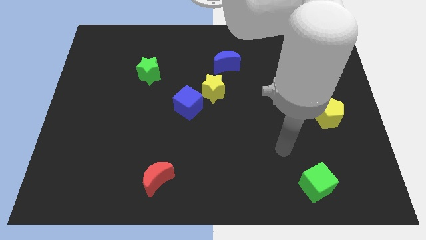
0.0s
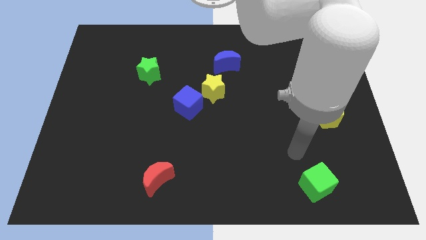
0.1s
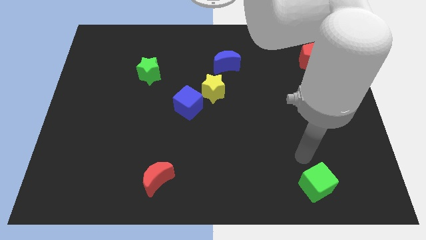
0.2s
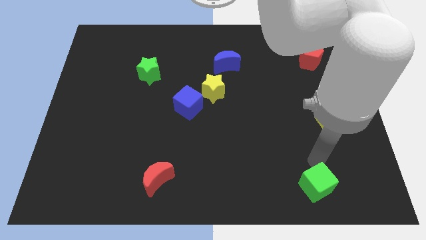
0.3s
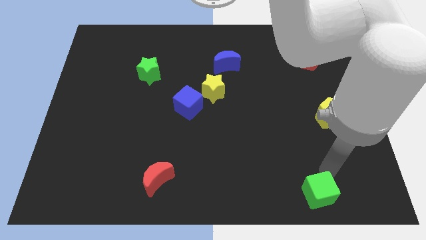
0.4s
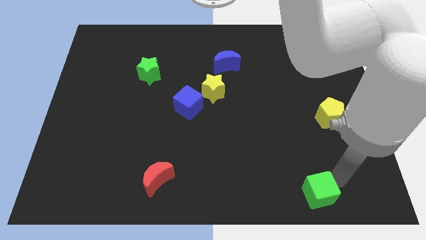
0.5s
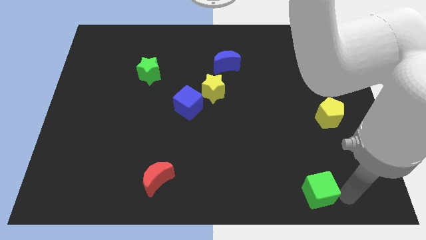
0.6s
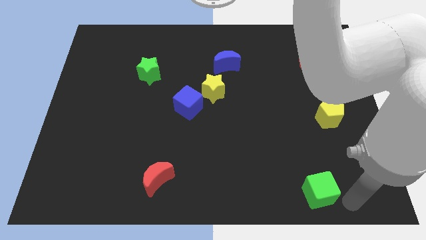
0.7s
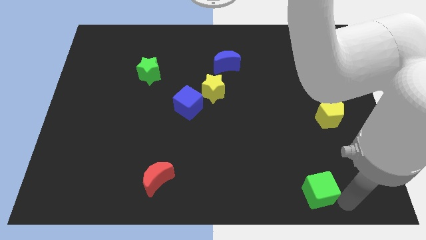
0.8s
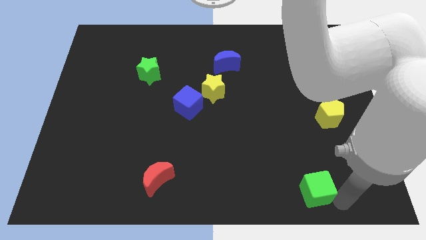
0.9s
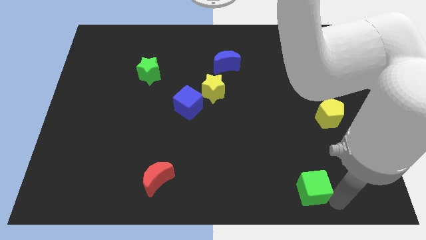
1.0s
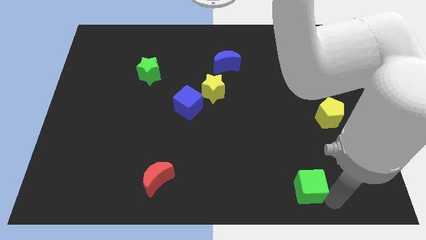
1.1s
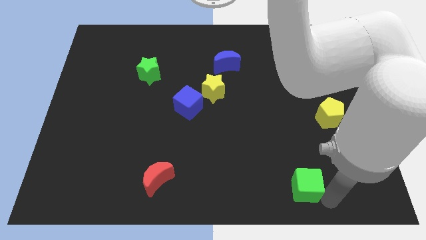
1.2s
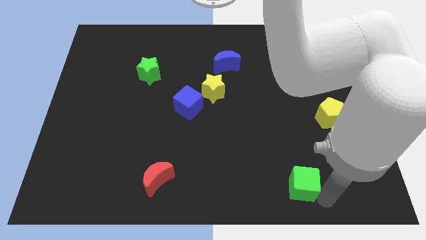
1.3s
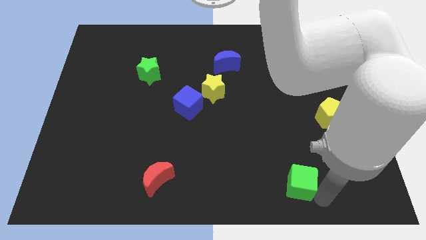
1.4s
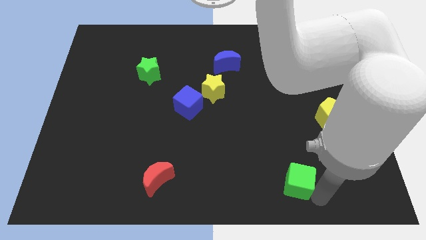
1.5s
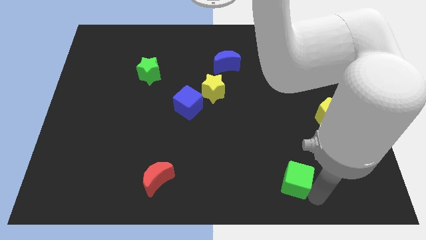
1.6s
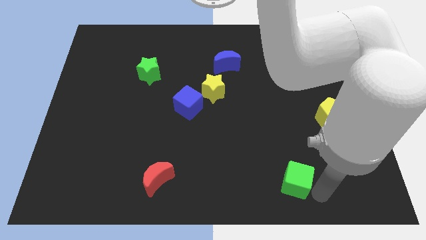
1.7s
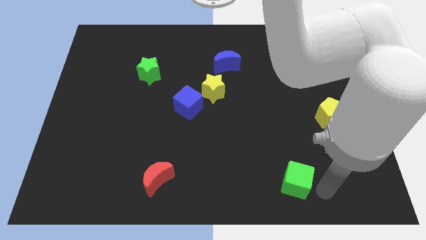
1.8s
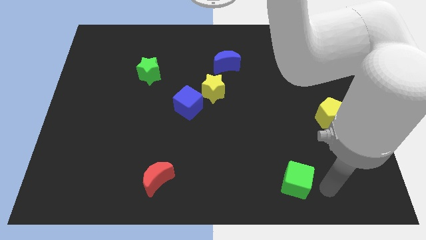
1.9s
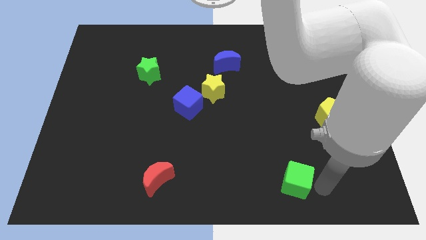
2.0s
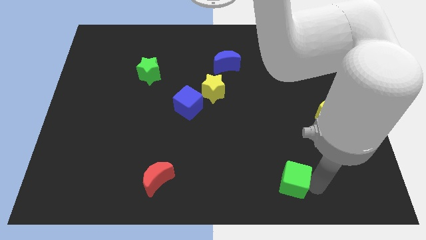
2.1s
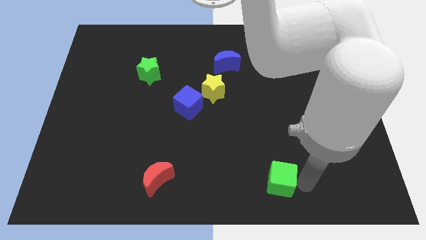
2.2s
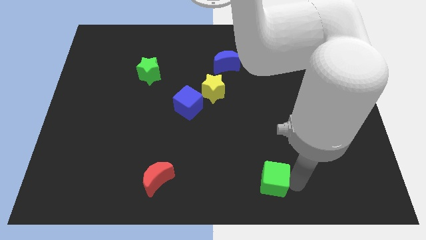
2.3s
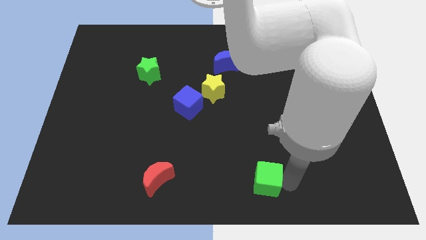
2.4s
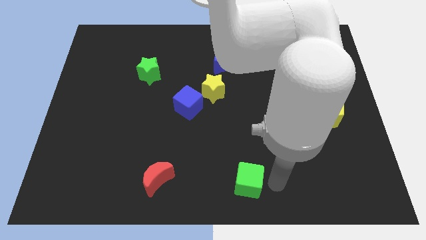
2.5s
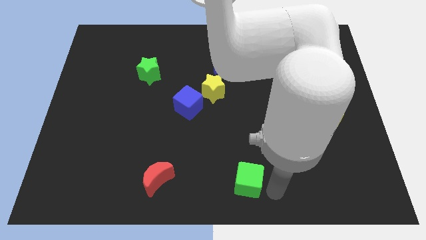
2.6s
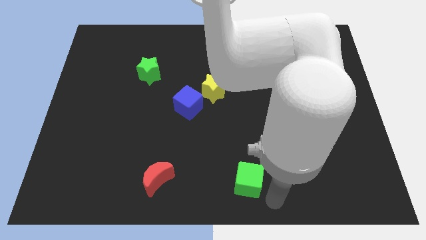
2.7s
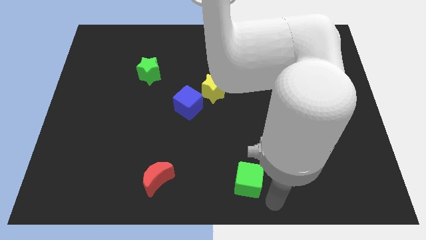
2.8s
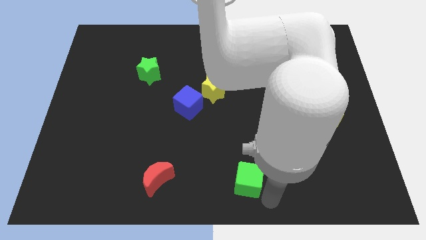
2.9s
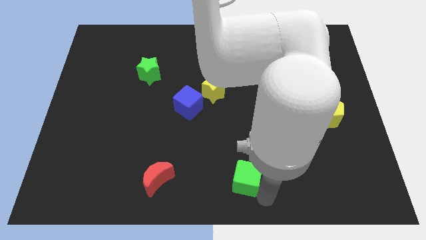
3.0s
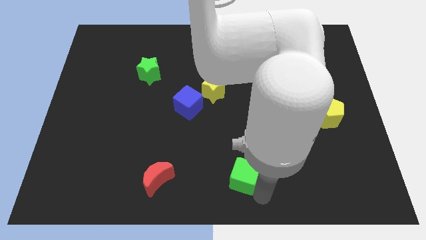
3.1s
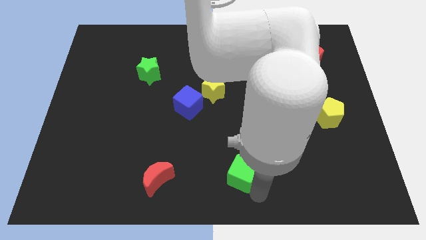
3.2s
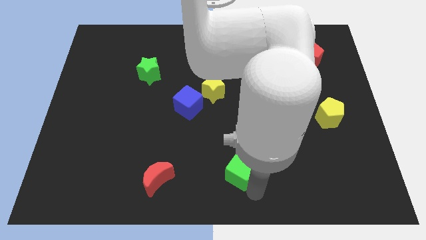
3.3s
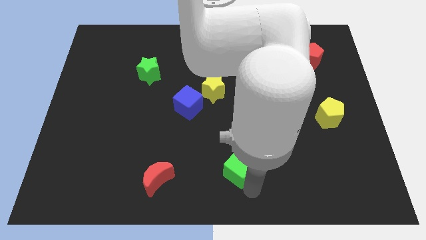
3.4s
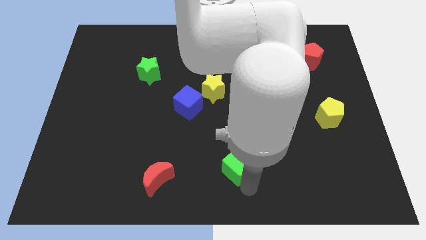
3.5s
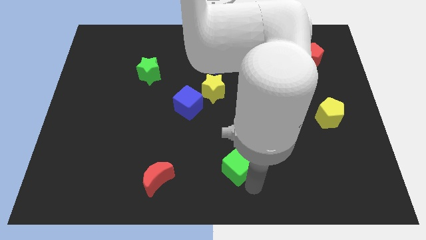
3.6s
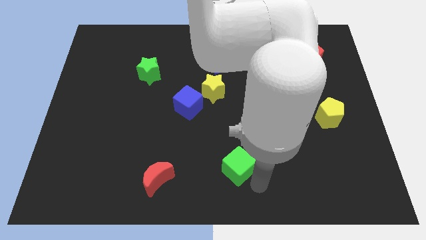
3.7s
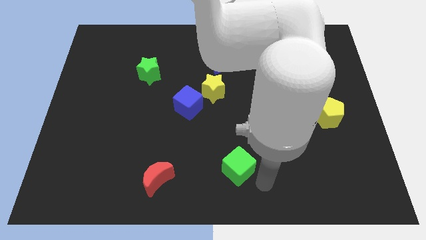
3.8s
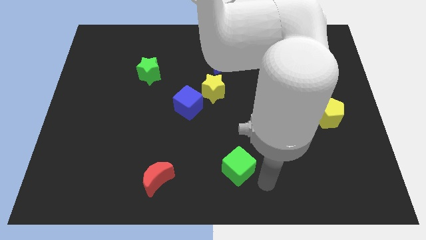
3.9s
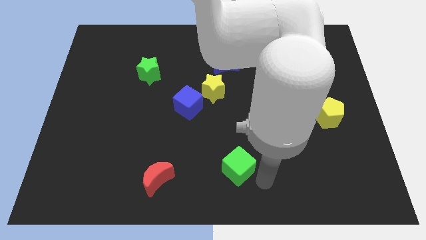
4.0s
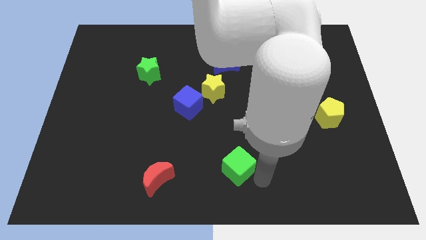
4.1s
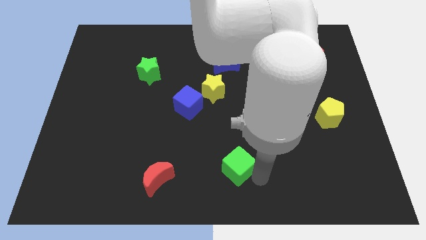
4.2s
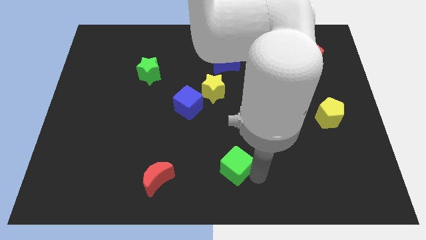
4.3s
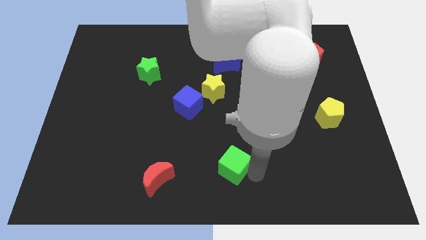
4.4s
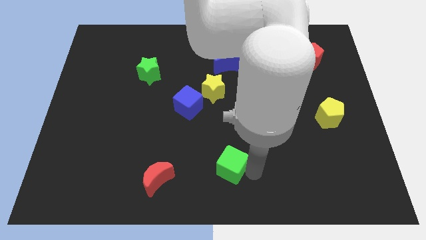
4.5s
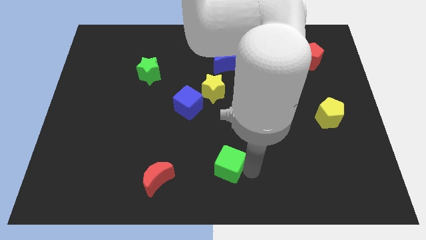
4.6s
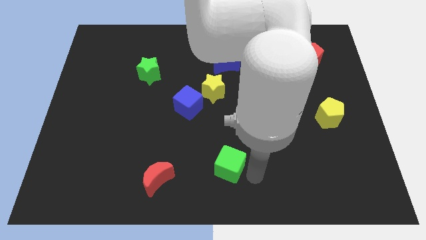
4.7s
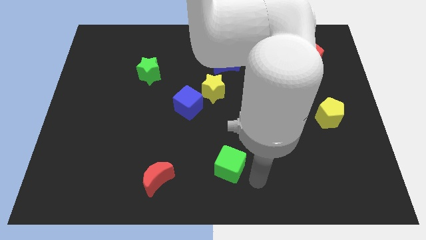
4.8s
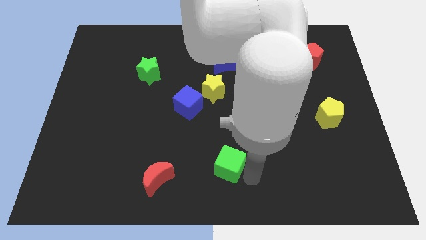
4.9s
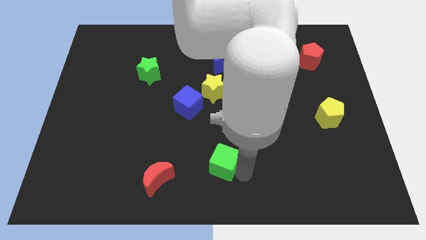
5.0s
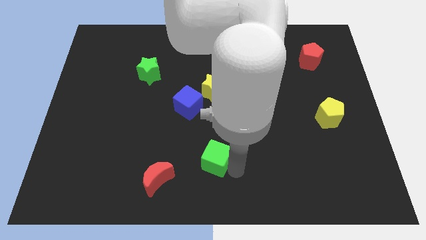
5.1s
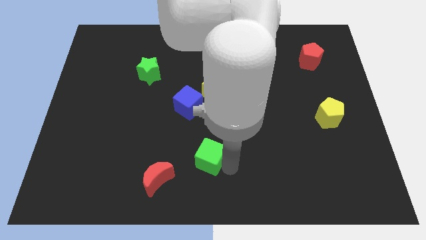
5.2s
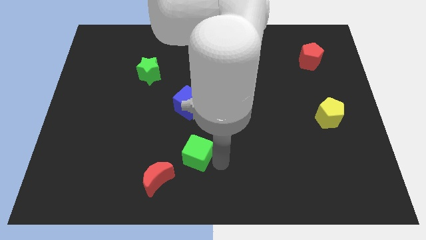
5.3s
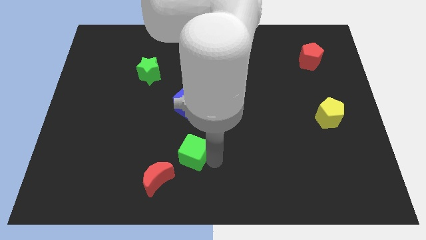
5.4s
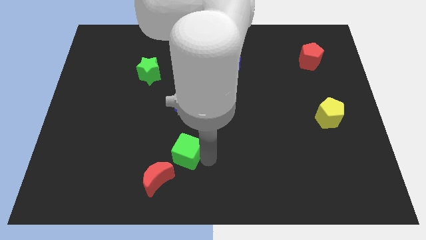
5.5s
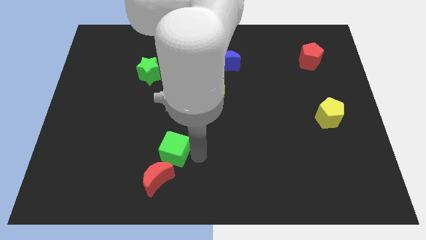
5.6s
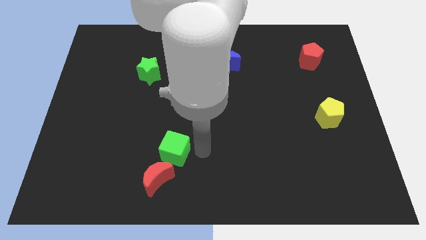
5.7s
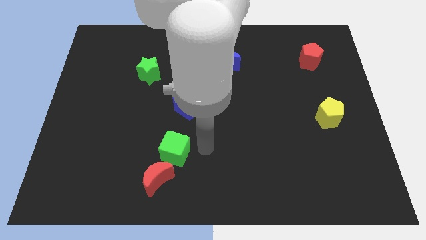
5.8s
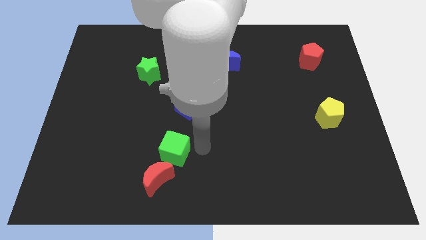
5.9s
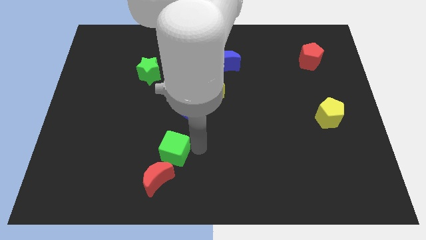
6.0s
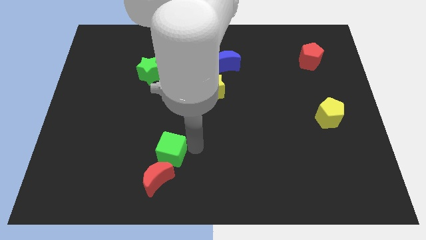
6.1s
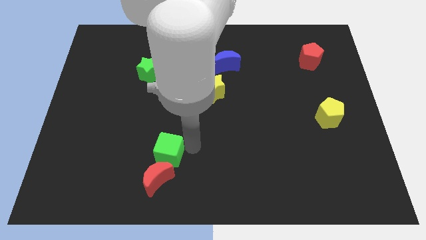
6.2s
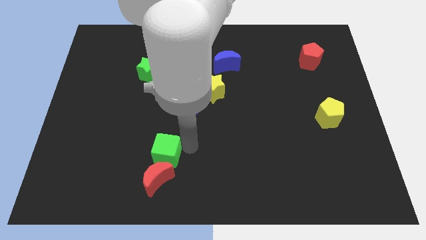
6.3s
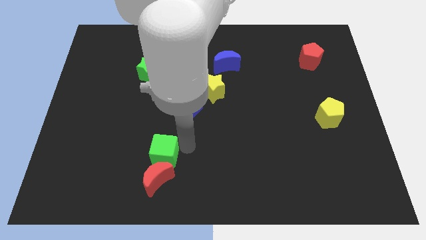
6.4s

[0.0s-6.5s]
put the green cube diagonally up and to the left of the red moon

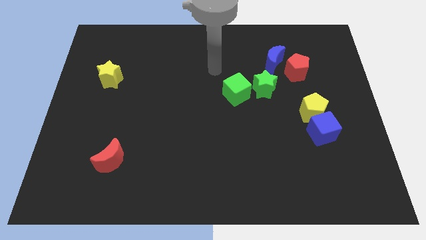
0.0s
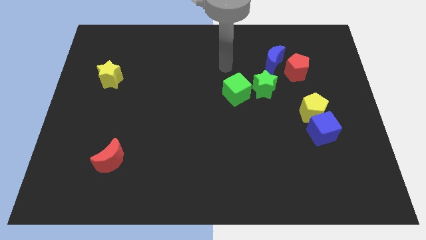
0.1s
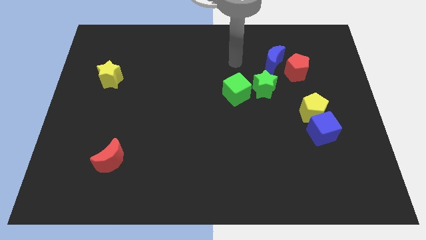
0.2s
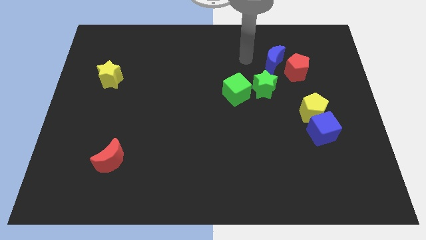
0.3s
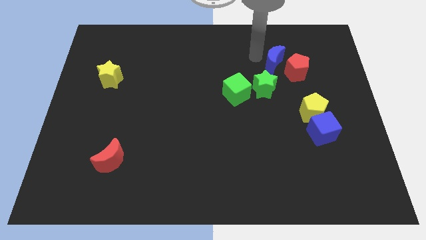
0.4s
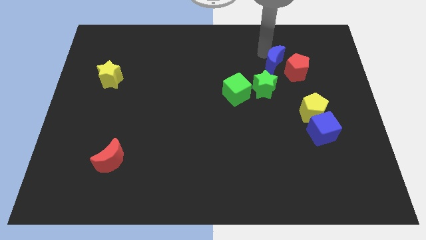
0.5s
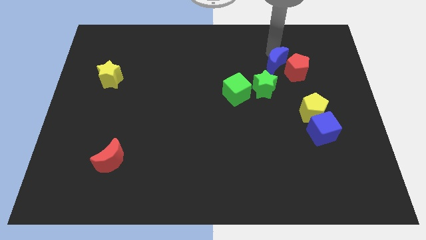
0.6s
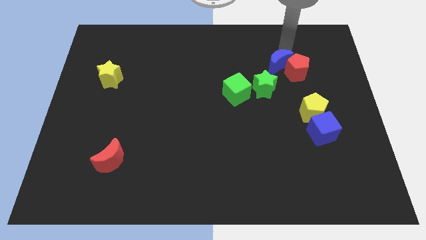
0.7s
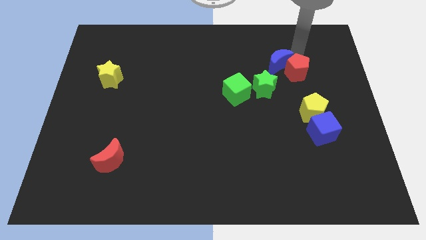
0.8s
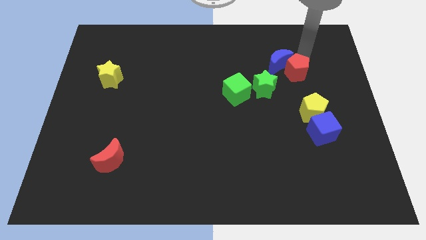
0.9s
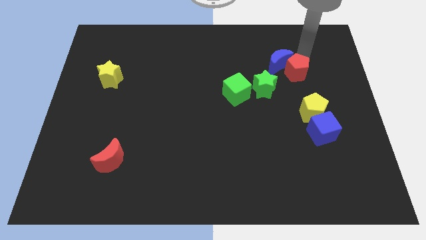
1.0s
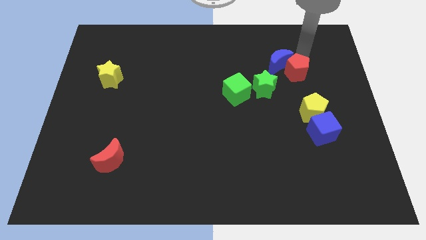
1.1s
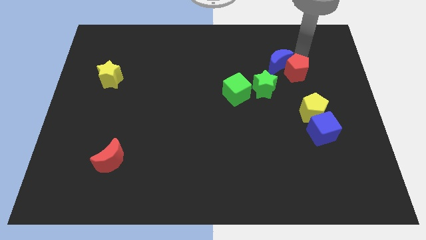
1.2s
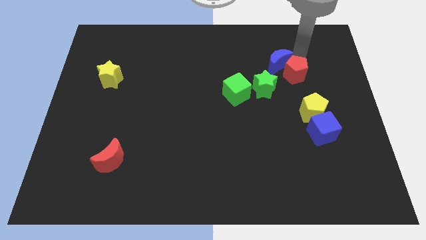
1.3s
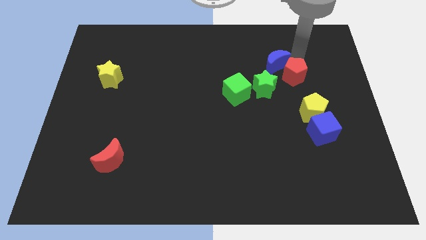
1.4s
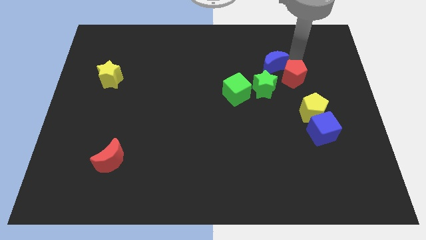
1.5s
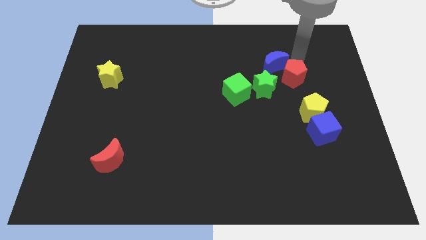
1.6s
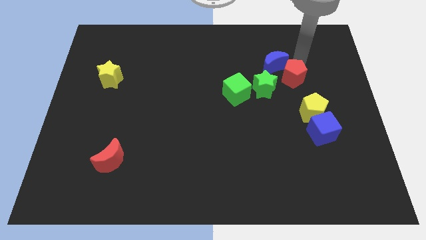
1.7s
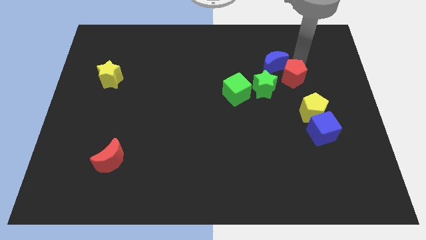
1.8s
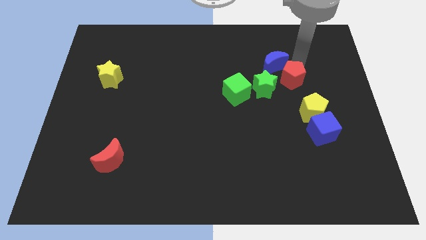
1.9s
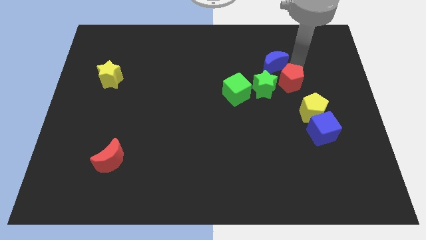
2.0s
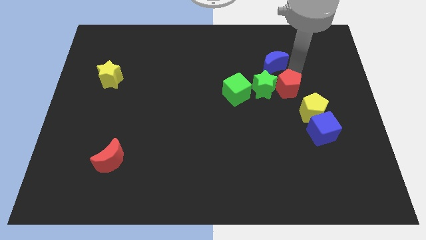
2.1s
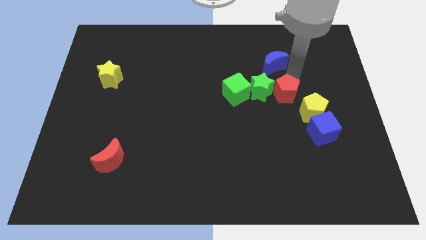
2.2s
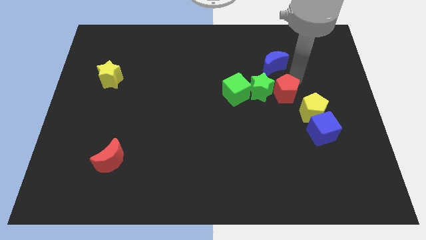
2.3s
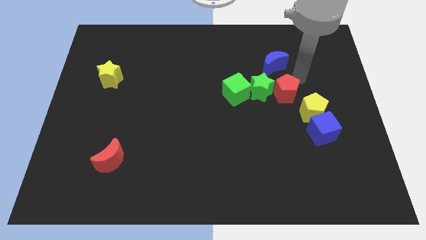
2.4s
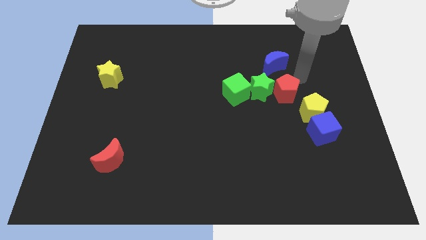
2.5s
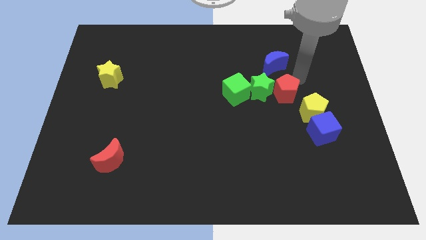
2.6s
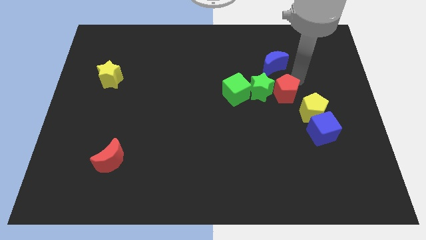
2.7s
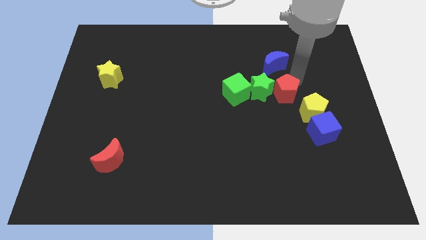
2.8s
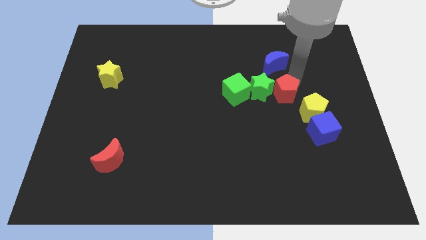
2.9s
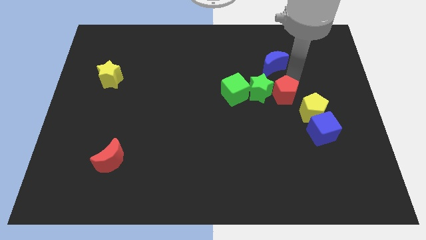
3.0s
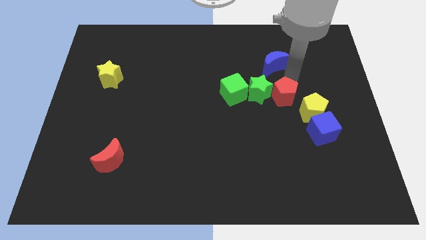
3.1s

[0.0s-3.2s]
put the red pentagon just left of the yellow pentagon
